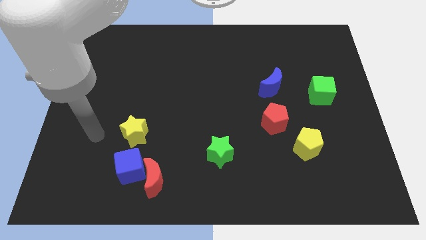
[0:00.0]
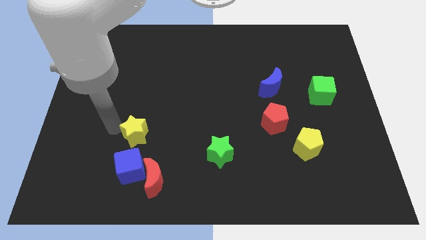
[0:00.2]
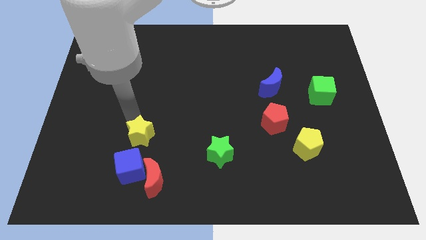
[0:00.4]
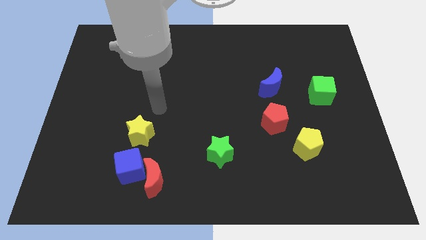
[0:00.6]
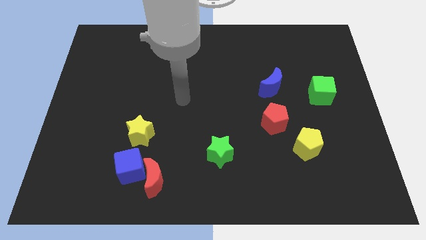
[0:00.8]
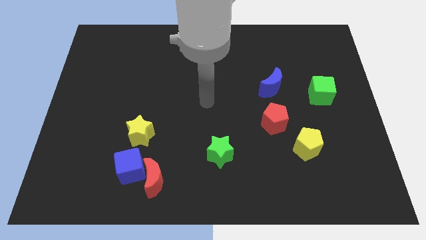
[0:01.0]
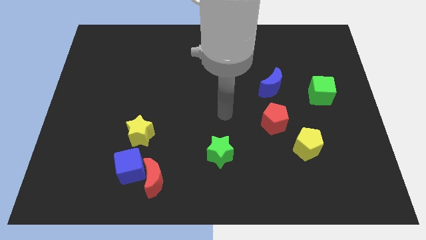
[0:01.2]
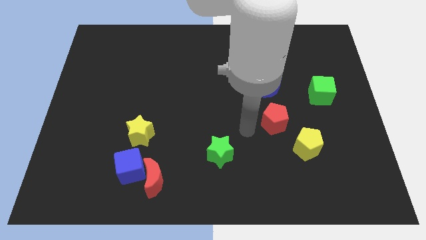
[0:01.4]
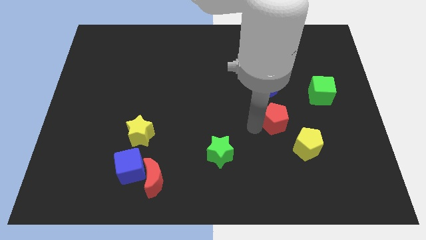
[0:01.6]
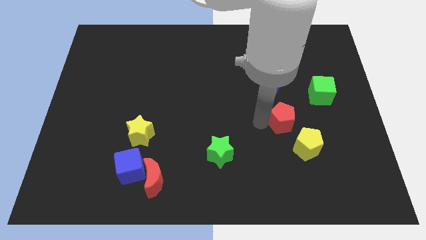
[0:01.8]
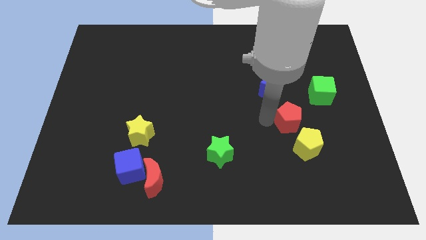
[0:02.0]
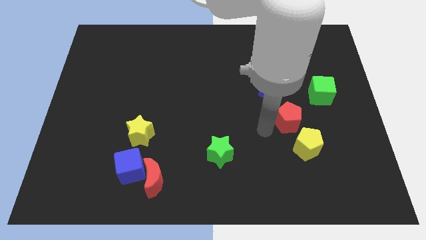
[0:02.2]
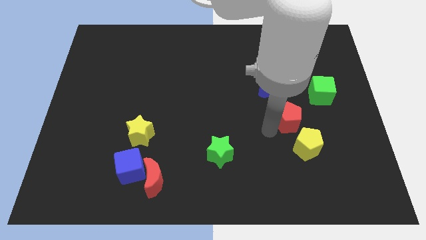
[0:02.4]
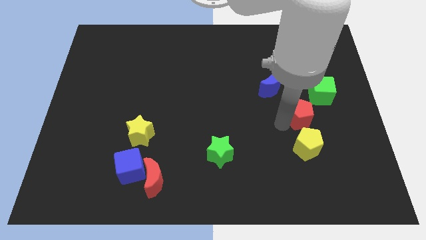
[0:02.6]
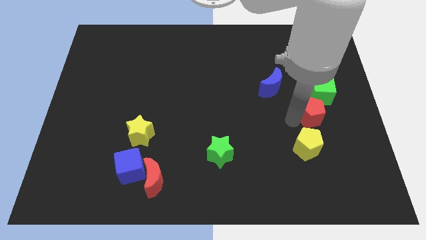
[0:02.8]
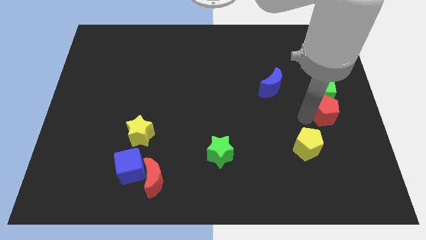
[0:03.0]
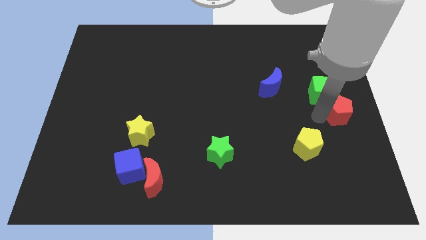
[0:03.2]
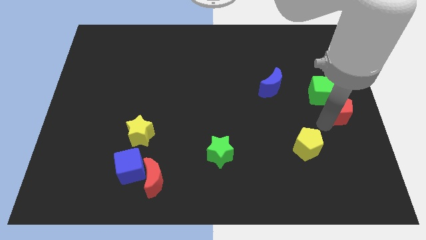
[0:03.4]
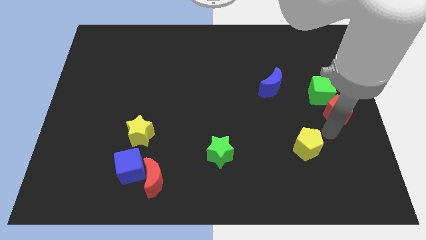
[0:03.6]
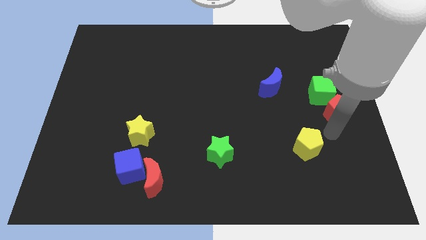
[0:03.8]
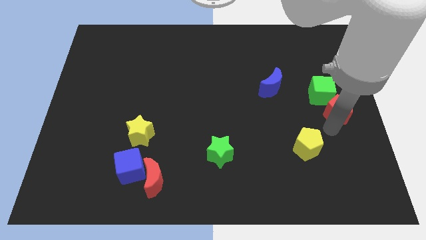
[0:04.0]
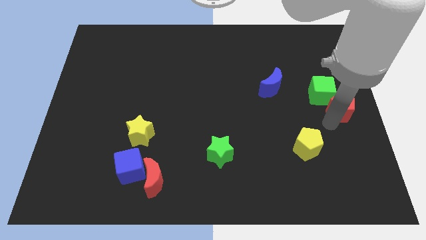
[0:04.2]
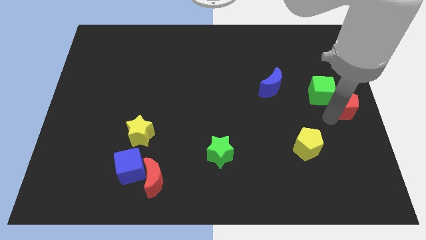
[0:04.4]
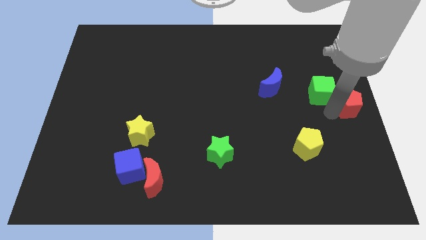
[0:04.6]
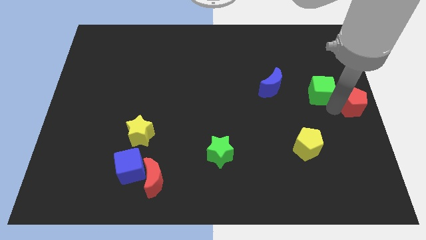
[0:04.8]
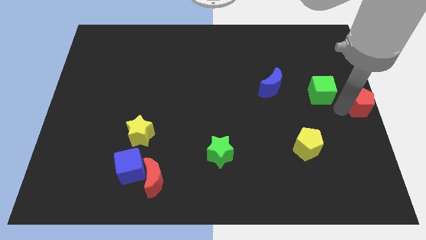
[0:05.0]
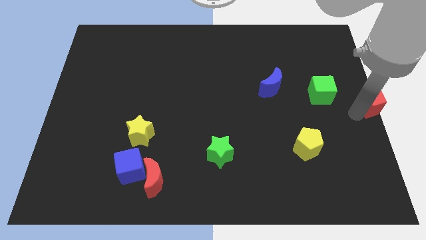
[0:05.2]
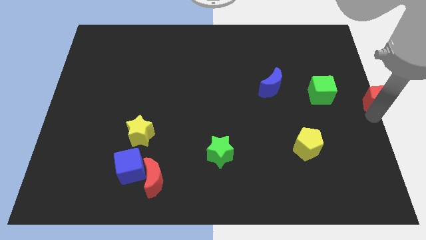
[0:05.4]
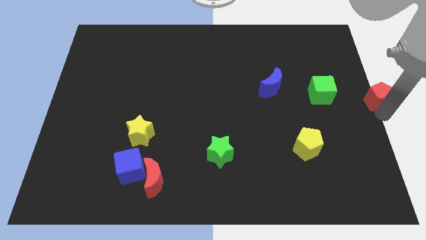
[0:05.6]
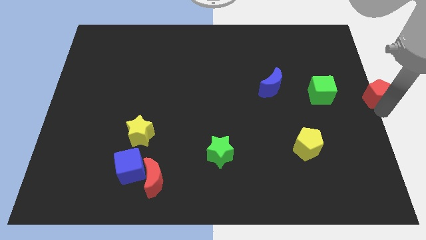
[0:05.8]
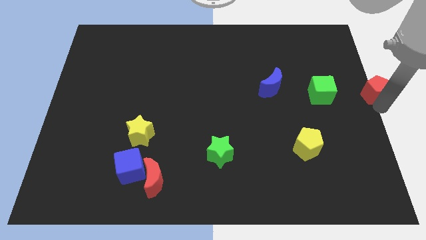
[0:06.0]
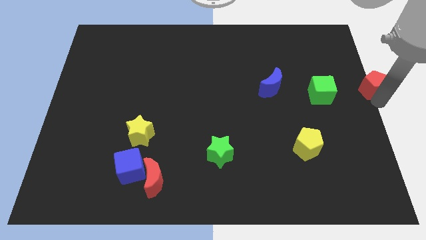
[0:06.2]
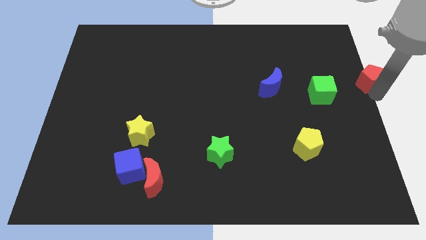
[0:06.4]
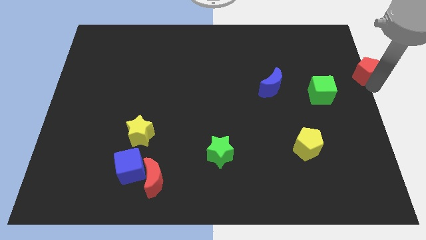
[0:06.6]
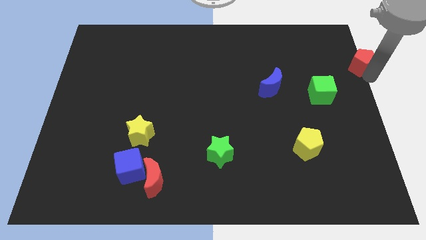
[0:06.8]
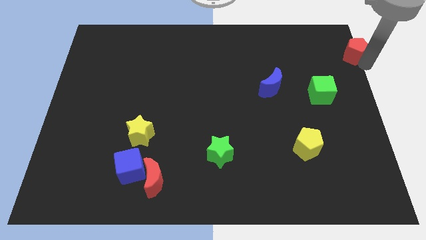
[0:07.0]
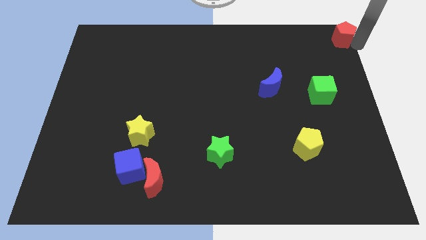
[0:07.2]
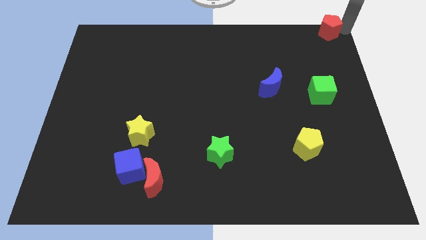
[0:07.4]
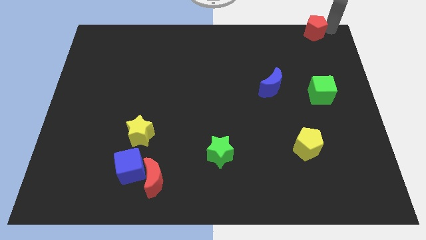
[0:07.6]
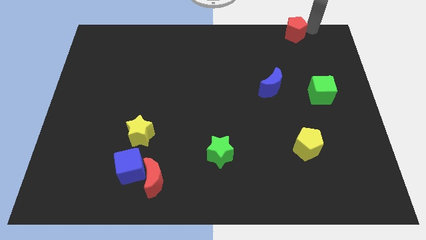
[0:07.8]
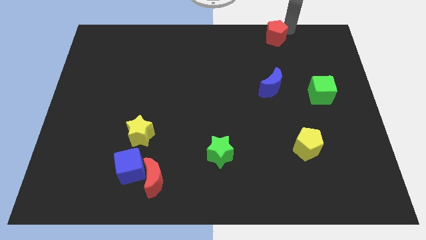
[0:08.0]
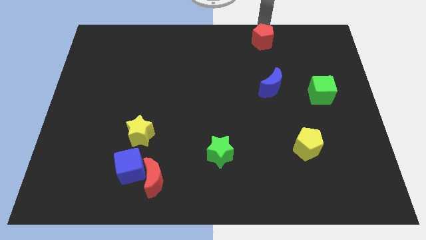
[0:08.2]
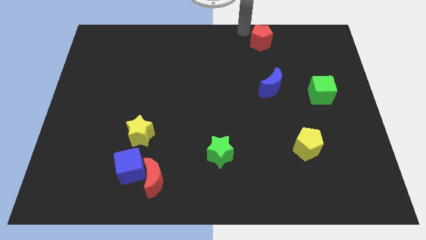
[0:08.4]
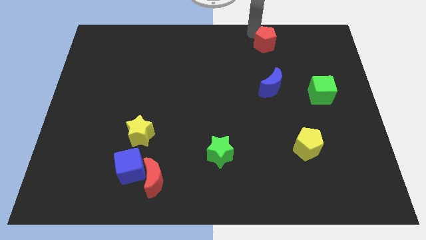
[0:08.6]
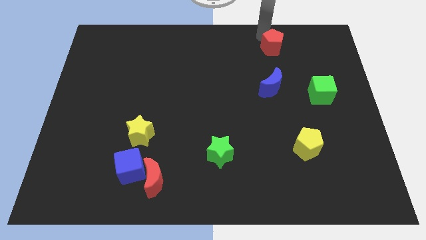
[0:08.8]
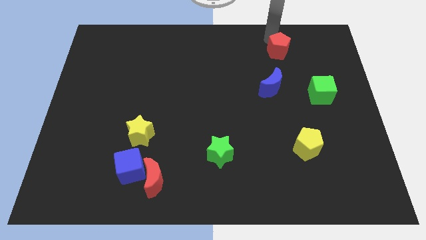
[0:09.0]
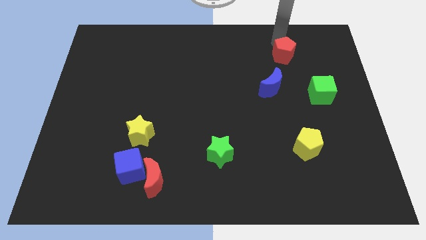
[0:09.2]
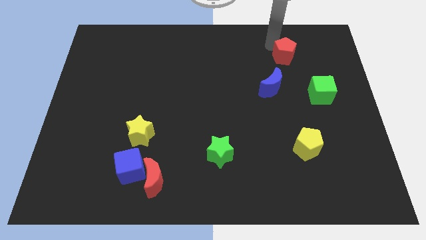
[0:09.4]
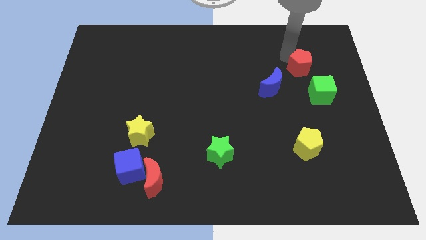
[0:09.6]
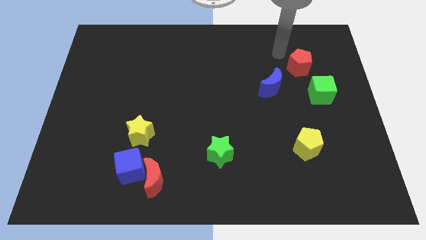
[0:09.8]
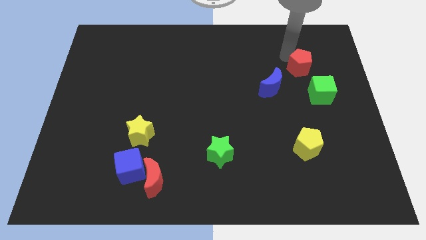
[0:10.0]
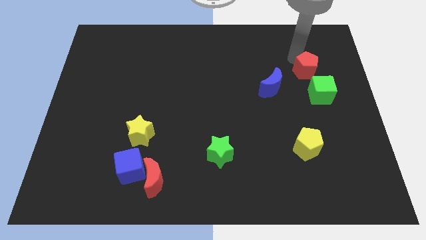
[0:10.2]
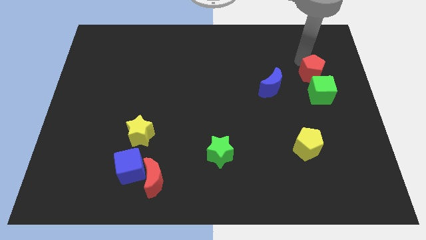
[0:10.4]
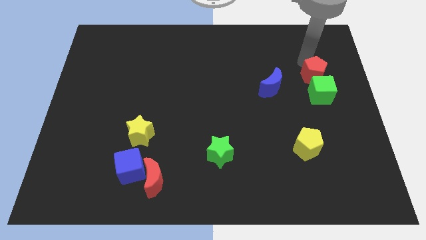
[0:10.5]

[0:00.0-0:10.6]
move the red pentagon to the right of the blue moon

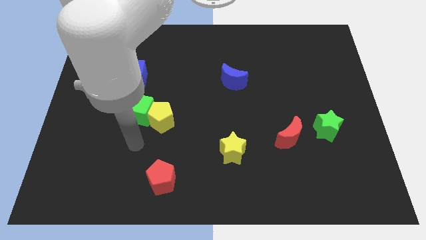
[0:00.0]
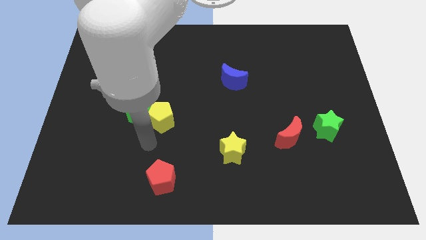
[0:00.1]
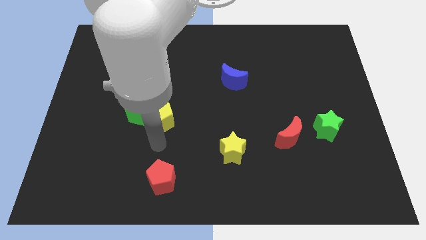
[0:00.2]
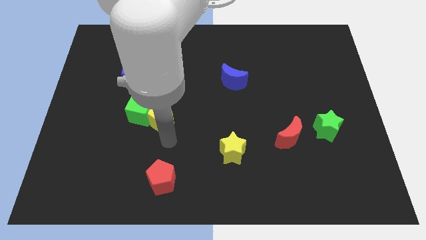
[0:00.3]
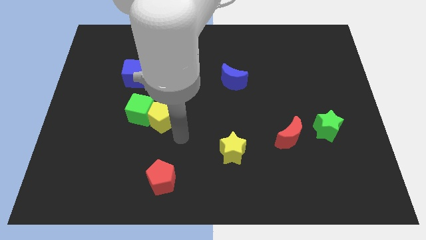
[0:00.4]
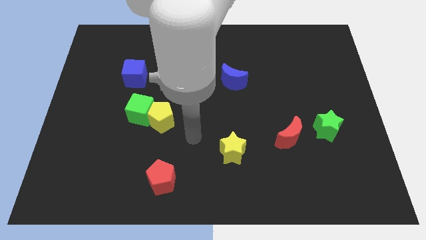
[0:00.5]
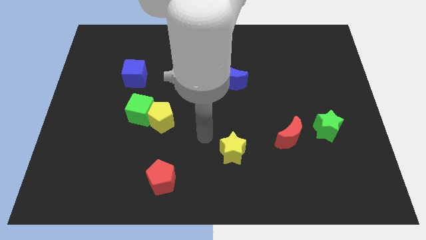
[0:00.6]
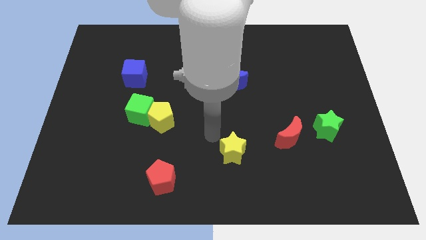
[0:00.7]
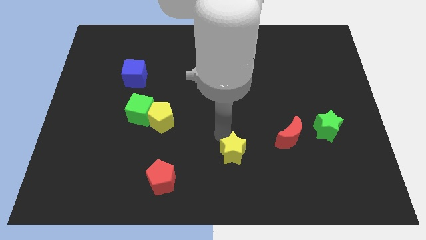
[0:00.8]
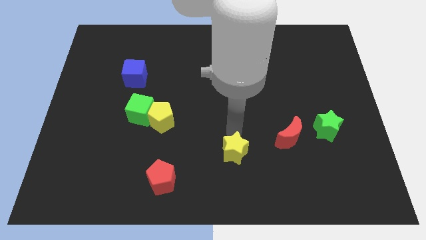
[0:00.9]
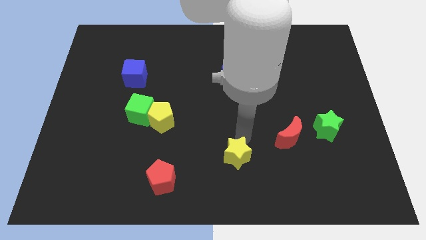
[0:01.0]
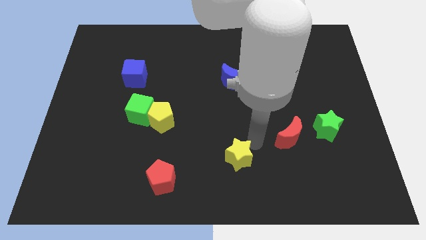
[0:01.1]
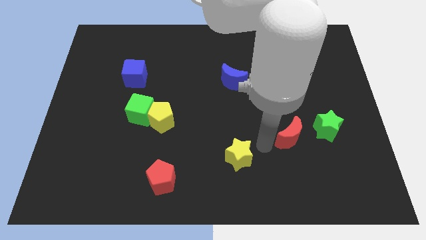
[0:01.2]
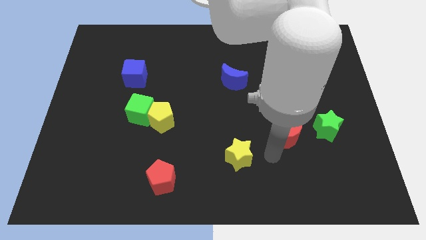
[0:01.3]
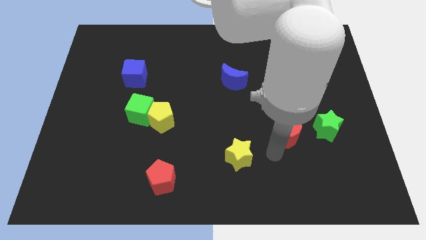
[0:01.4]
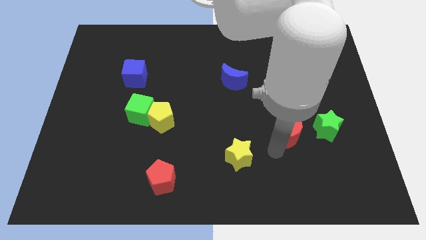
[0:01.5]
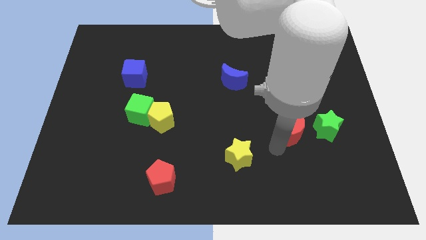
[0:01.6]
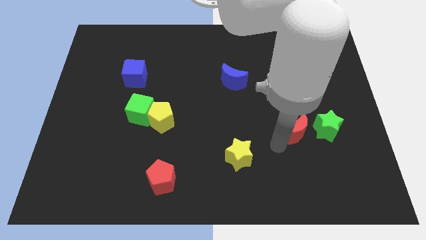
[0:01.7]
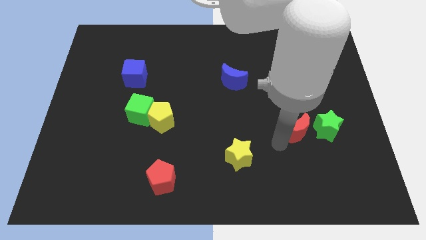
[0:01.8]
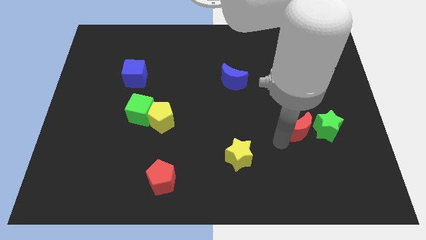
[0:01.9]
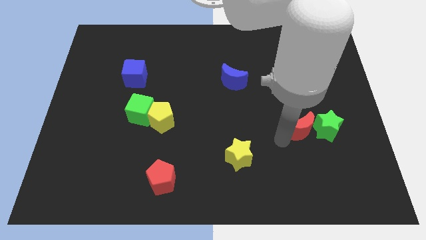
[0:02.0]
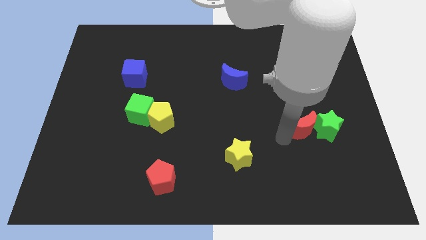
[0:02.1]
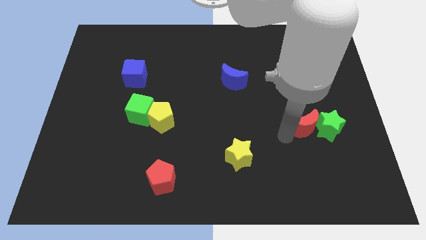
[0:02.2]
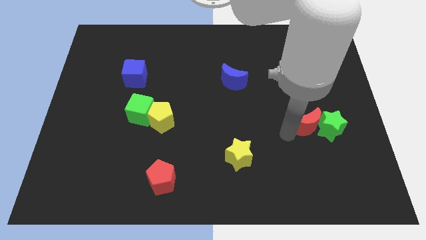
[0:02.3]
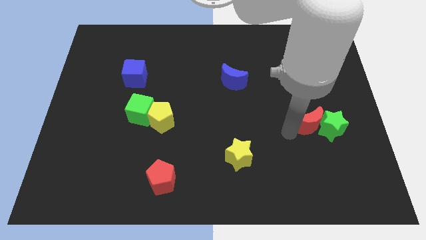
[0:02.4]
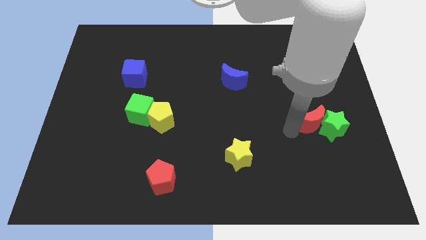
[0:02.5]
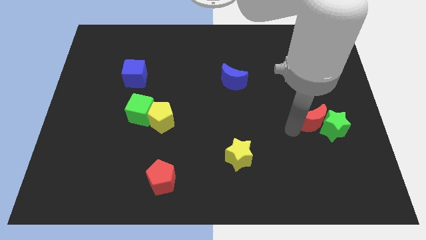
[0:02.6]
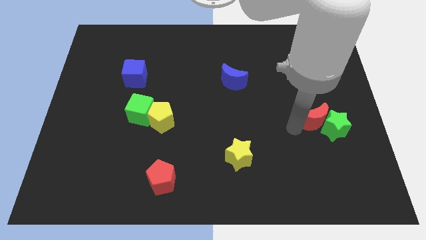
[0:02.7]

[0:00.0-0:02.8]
push the red moon to the top of the green star
